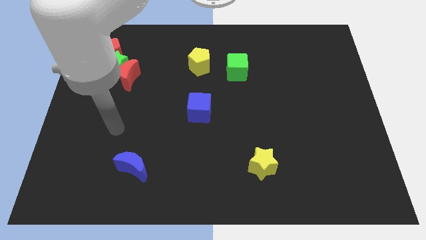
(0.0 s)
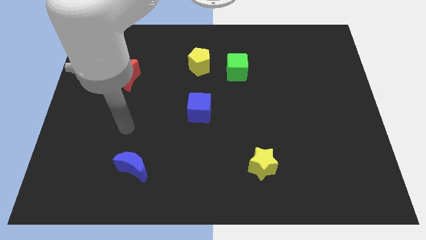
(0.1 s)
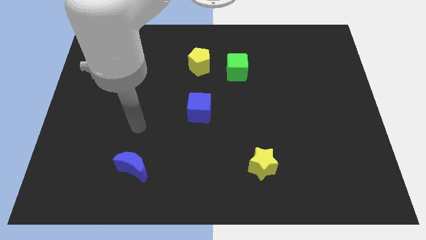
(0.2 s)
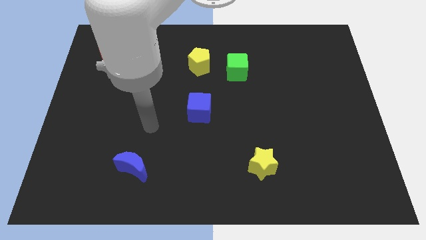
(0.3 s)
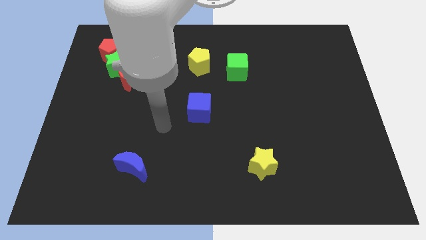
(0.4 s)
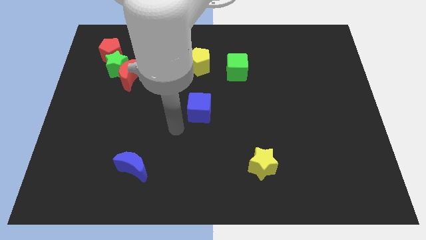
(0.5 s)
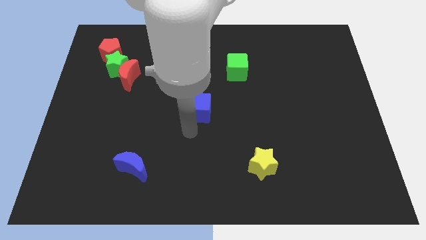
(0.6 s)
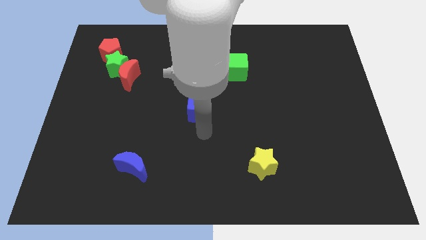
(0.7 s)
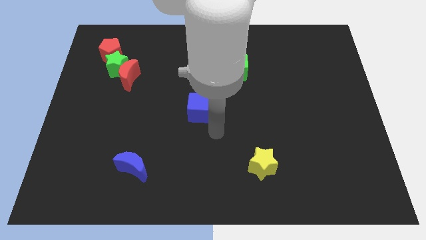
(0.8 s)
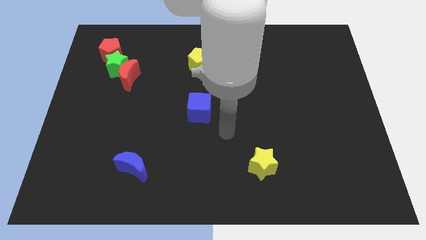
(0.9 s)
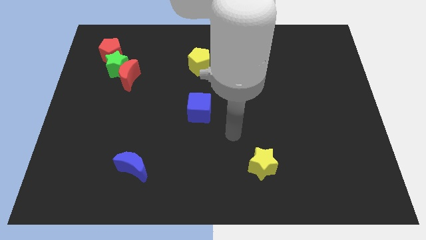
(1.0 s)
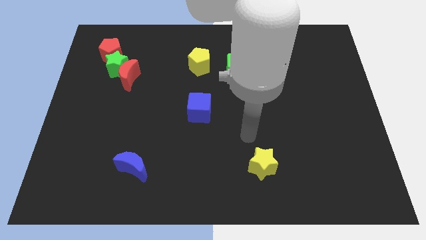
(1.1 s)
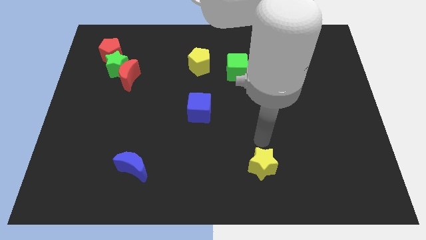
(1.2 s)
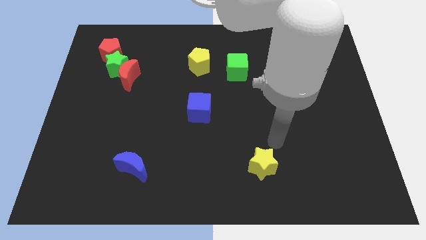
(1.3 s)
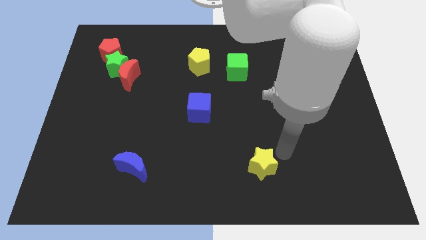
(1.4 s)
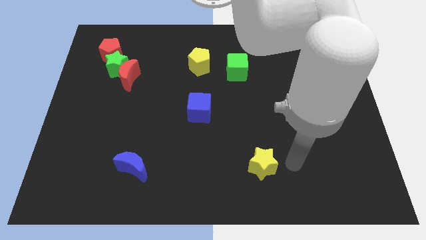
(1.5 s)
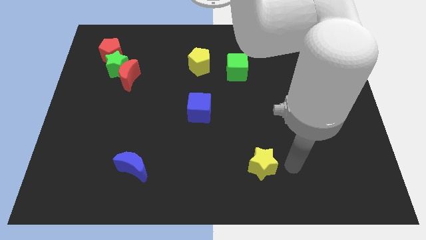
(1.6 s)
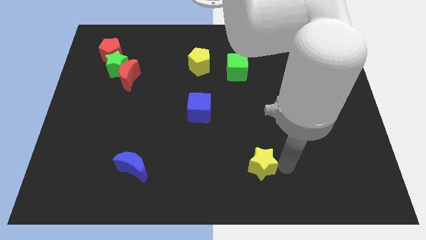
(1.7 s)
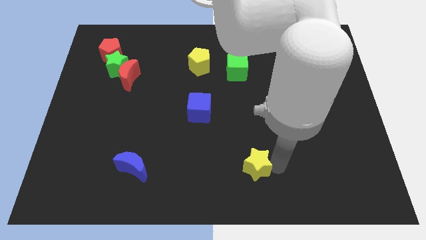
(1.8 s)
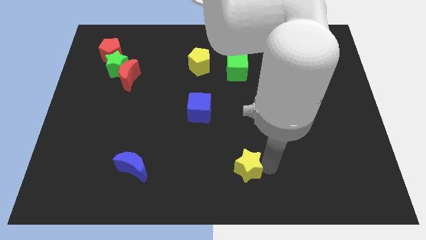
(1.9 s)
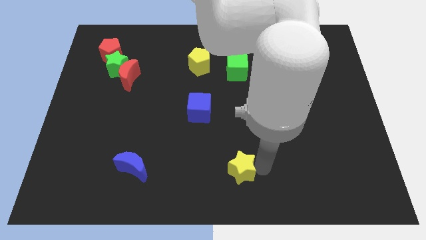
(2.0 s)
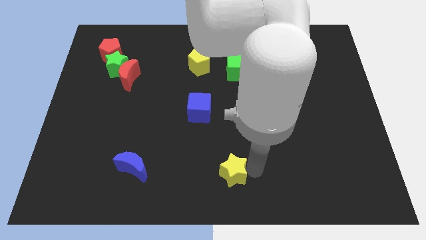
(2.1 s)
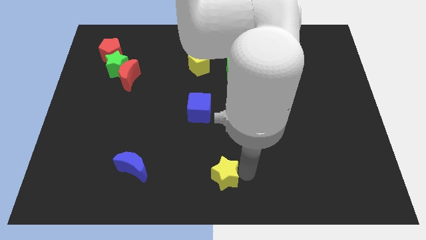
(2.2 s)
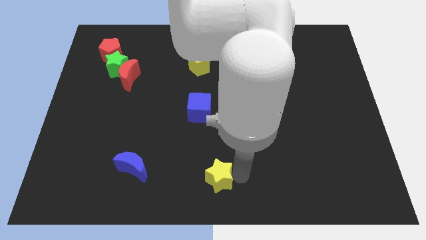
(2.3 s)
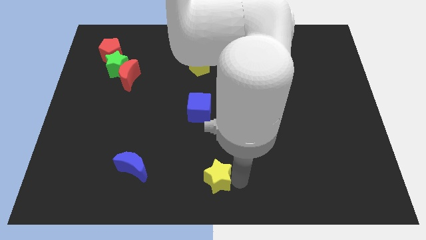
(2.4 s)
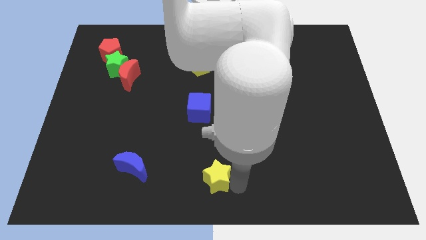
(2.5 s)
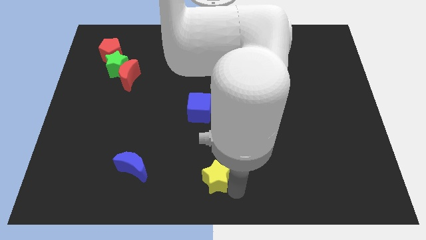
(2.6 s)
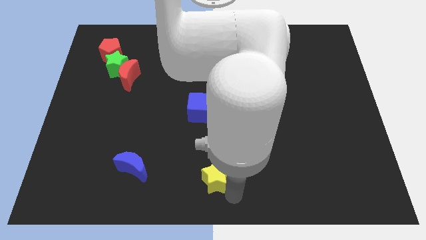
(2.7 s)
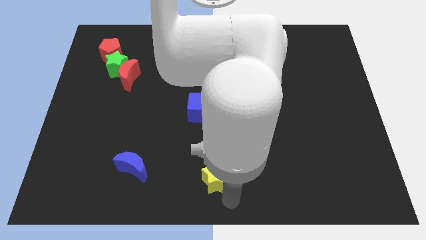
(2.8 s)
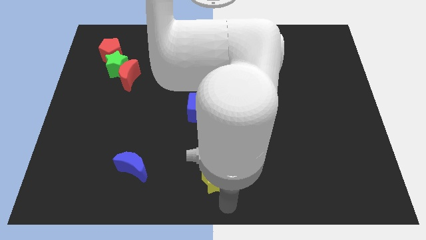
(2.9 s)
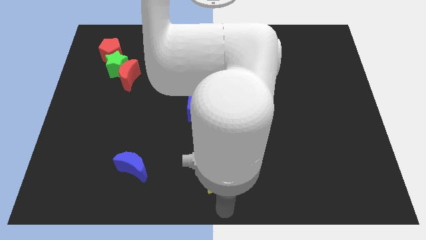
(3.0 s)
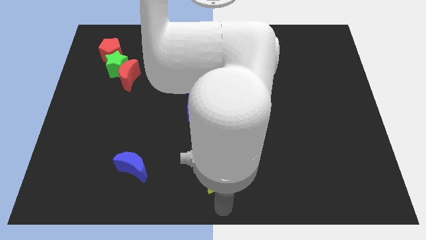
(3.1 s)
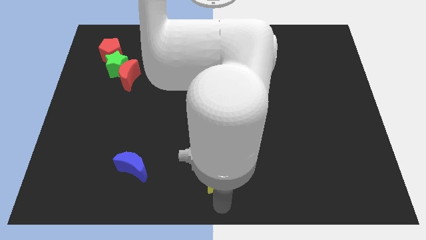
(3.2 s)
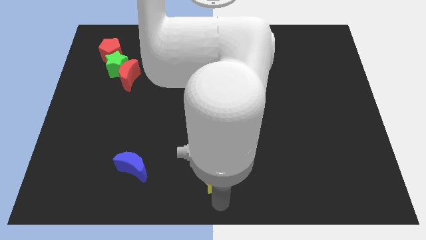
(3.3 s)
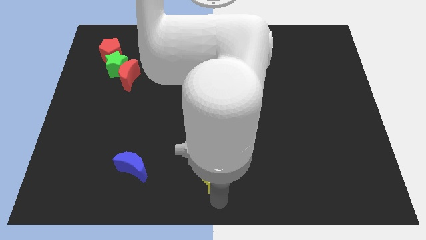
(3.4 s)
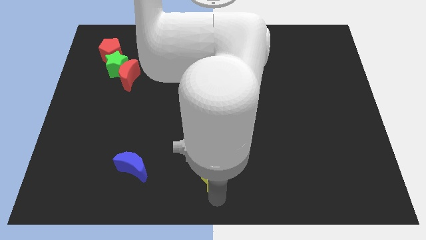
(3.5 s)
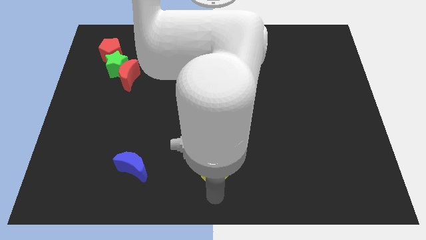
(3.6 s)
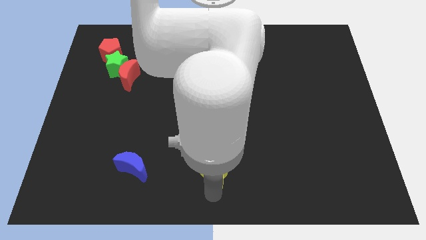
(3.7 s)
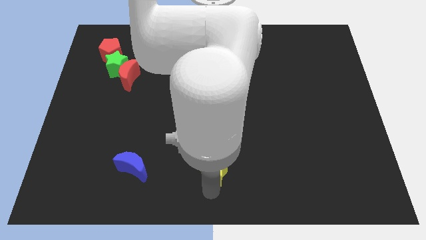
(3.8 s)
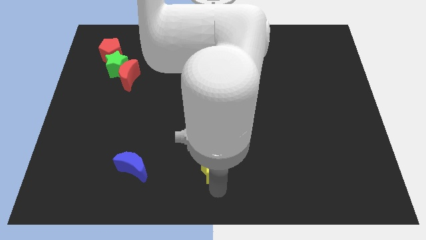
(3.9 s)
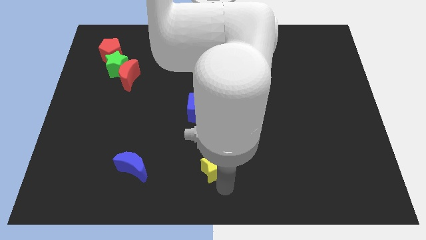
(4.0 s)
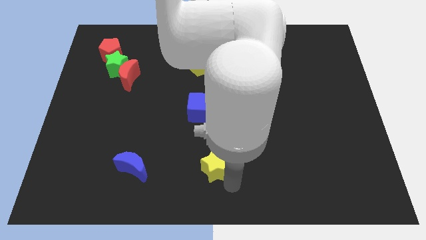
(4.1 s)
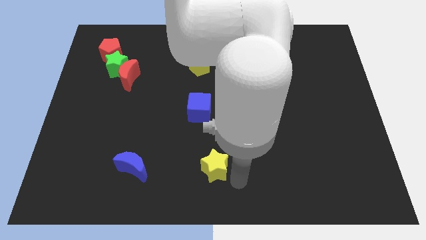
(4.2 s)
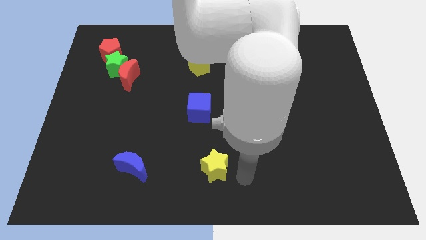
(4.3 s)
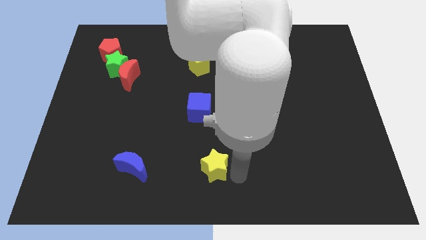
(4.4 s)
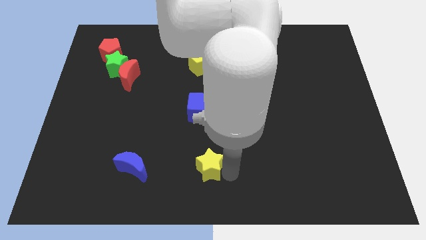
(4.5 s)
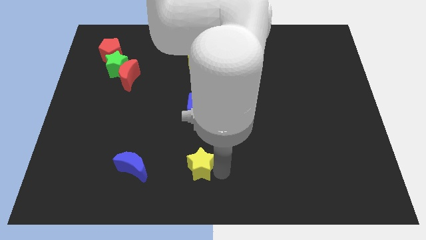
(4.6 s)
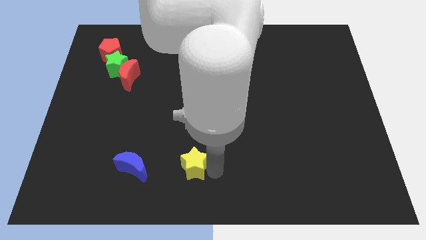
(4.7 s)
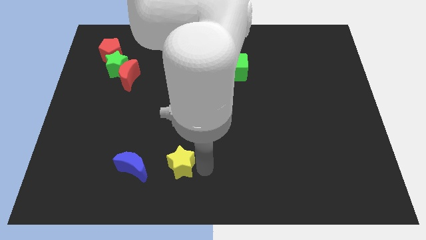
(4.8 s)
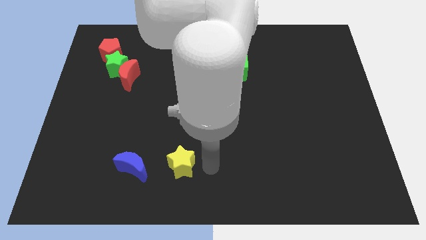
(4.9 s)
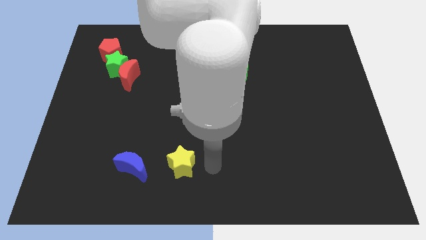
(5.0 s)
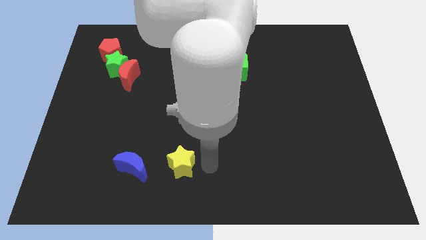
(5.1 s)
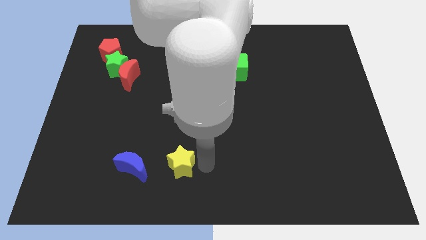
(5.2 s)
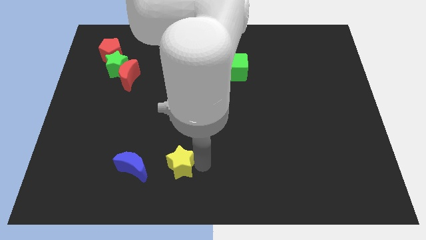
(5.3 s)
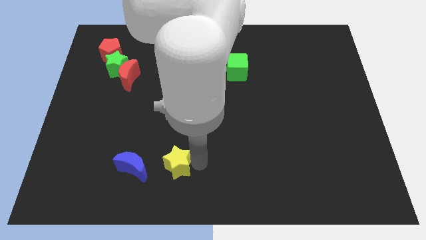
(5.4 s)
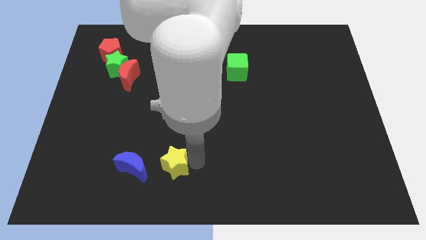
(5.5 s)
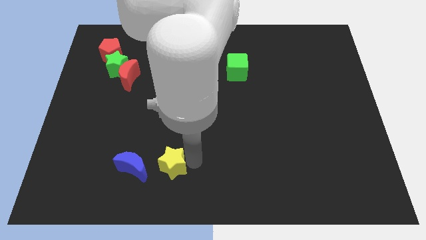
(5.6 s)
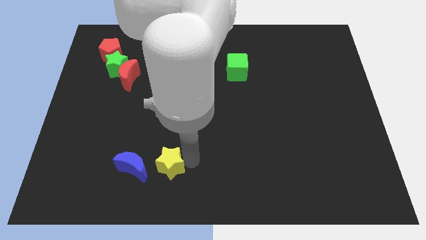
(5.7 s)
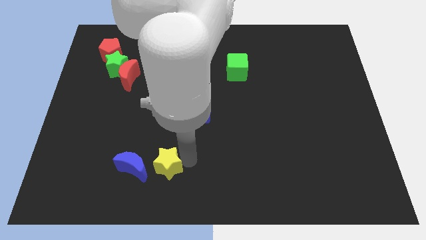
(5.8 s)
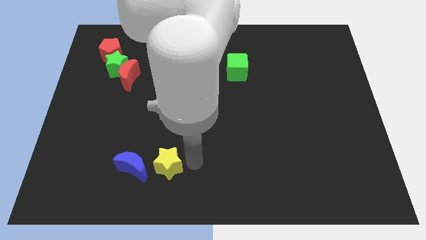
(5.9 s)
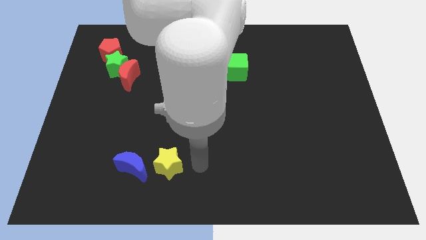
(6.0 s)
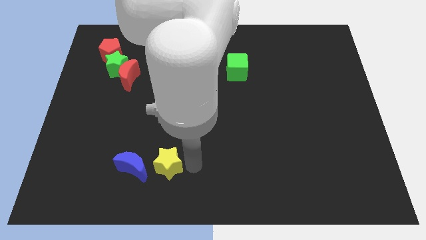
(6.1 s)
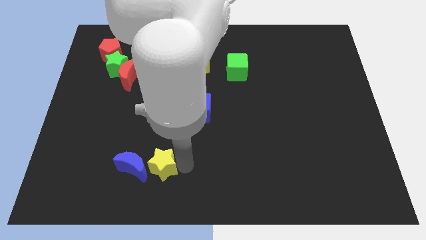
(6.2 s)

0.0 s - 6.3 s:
push the yellow star next to the blue moon
